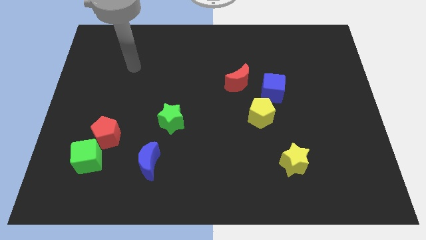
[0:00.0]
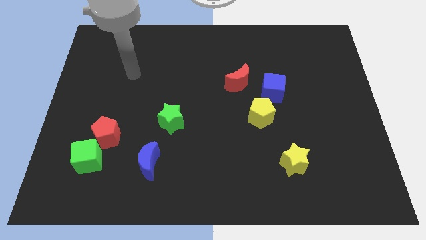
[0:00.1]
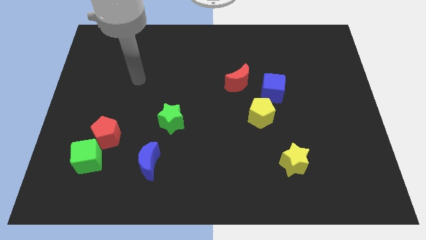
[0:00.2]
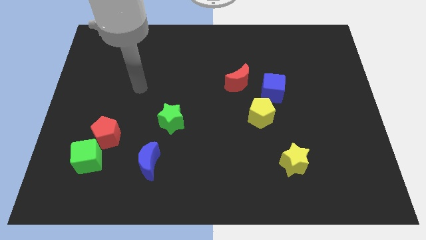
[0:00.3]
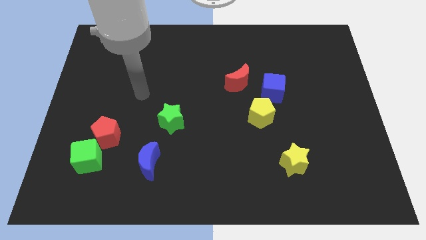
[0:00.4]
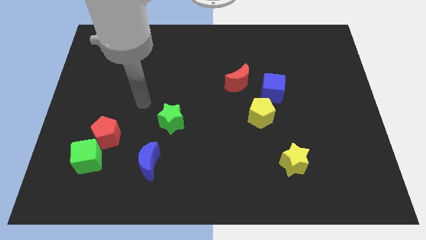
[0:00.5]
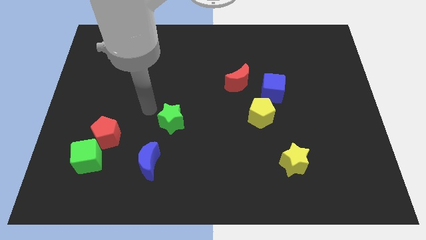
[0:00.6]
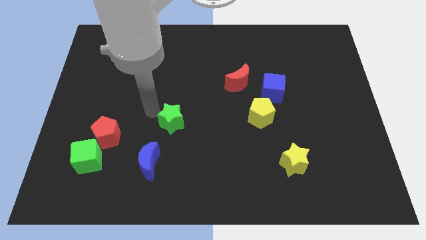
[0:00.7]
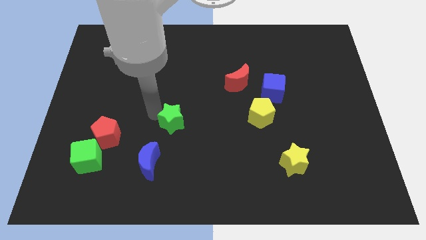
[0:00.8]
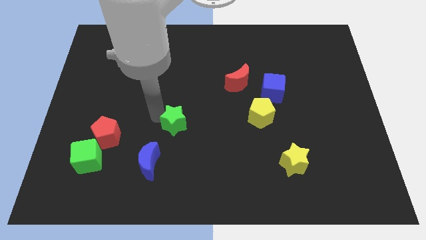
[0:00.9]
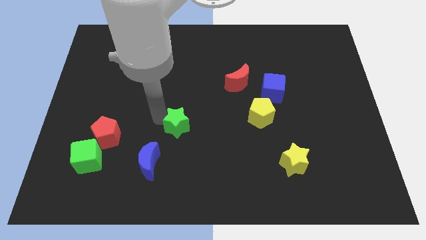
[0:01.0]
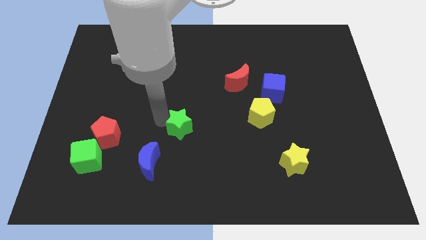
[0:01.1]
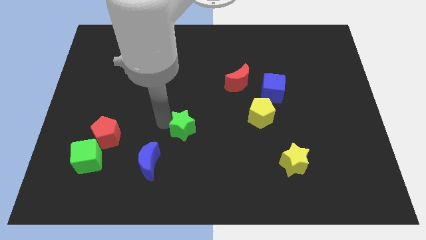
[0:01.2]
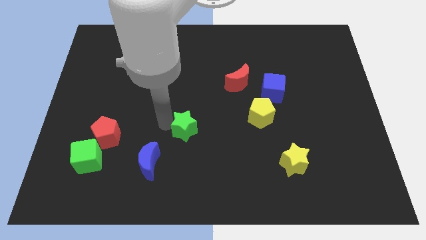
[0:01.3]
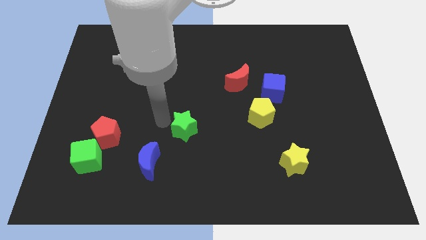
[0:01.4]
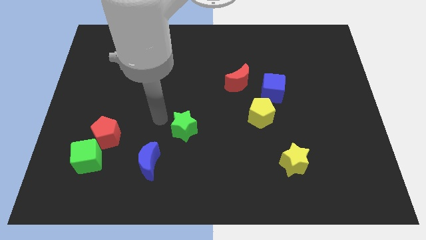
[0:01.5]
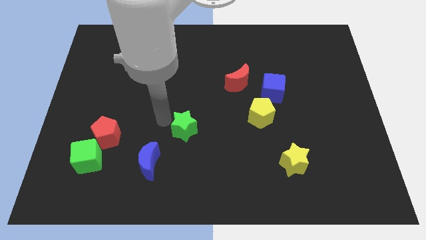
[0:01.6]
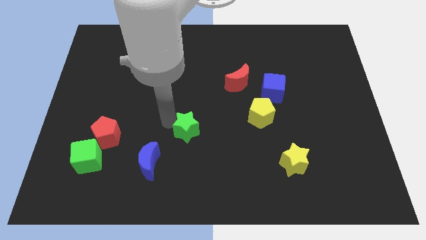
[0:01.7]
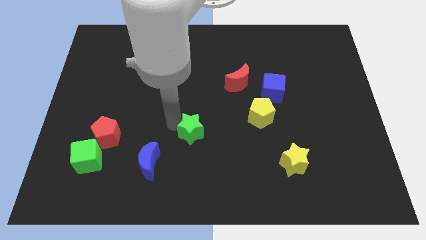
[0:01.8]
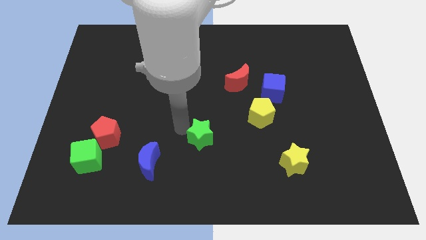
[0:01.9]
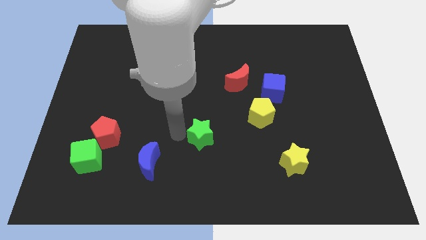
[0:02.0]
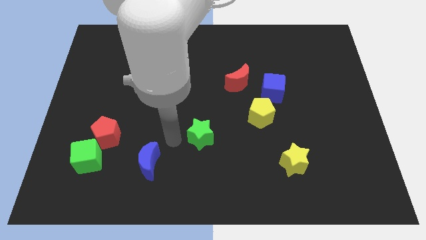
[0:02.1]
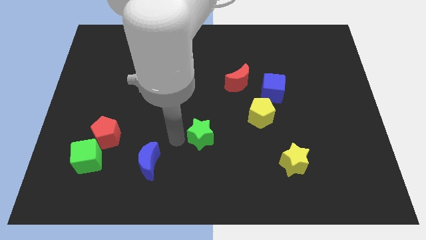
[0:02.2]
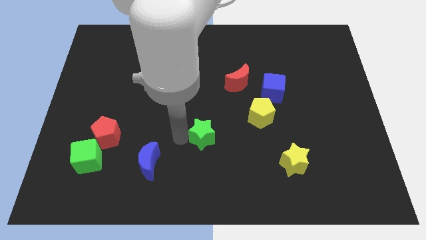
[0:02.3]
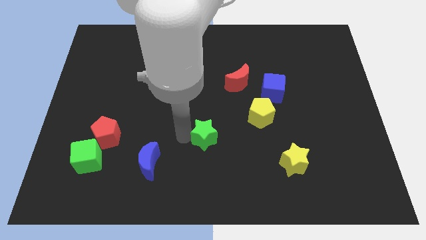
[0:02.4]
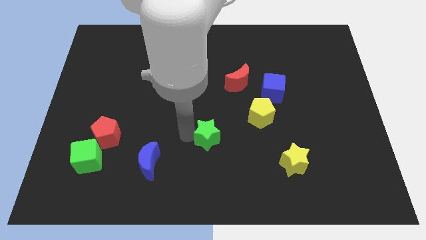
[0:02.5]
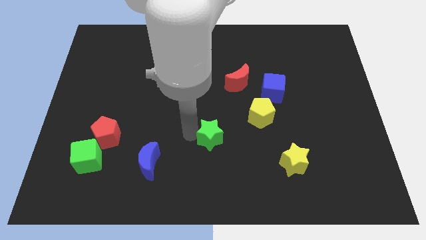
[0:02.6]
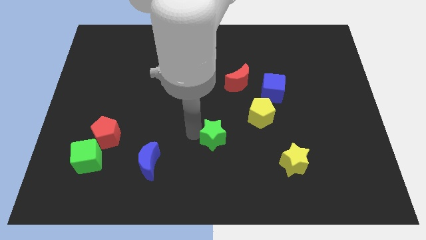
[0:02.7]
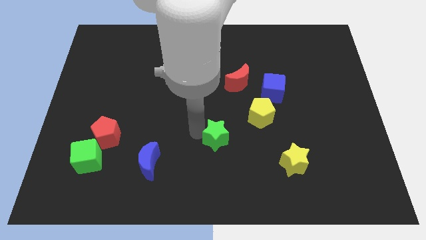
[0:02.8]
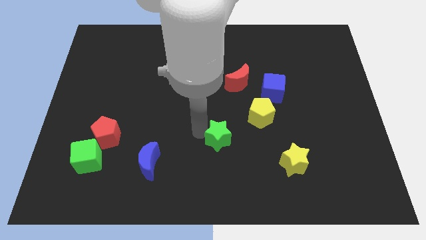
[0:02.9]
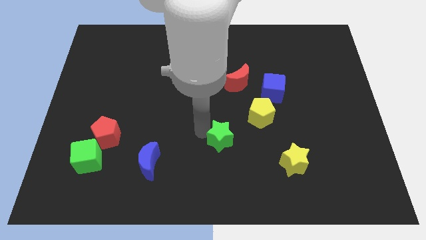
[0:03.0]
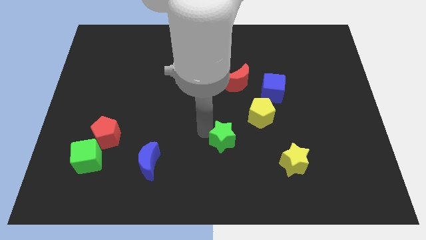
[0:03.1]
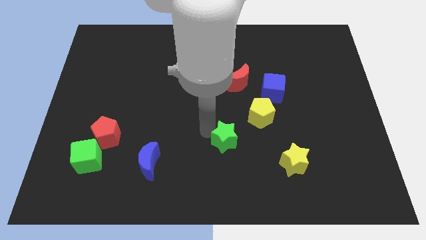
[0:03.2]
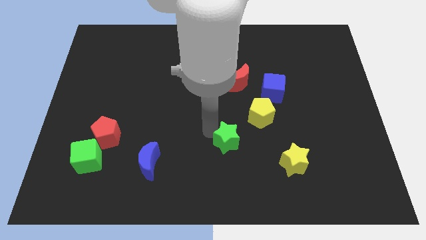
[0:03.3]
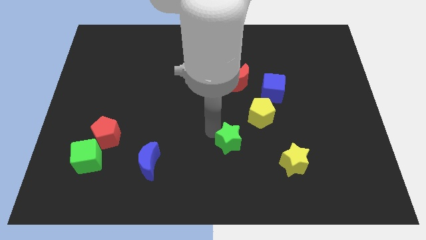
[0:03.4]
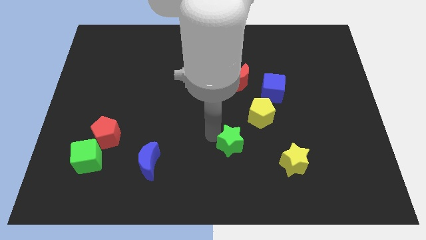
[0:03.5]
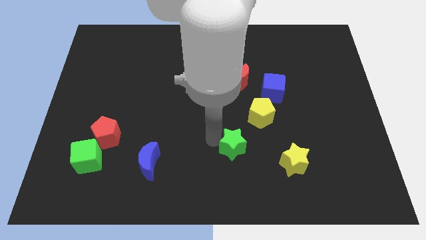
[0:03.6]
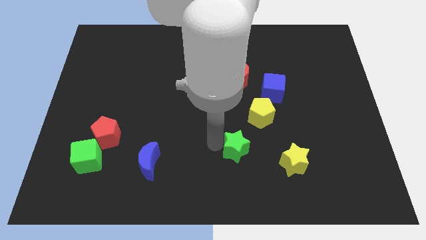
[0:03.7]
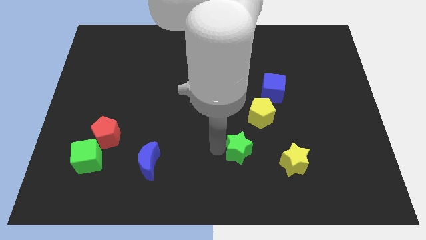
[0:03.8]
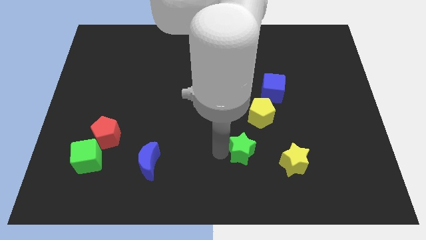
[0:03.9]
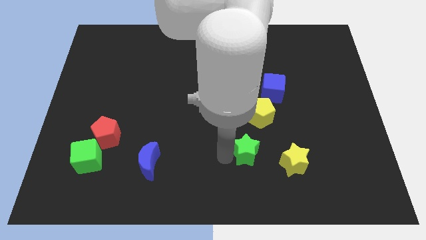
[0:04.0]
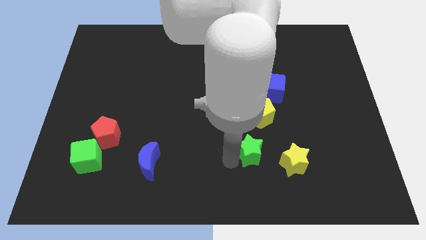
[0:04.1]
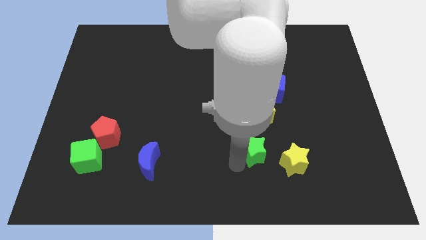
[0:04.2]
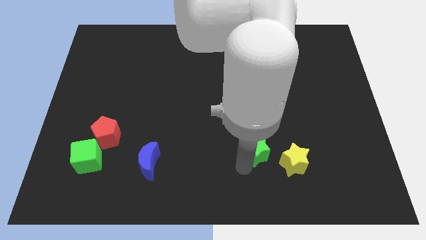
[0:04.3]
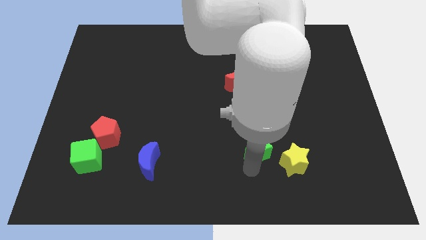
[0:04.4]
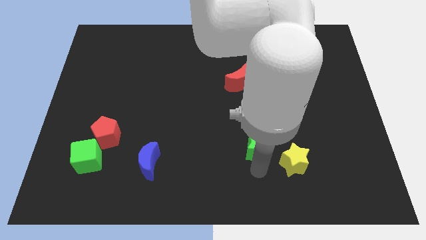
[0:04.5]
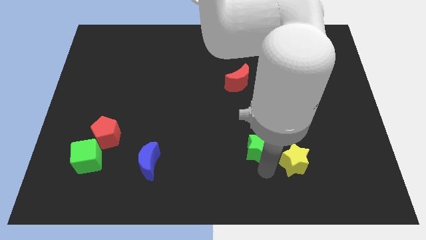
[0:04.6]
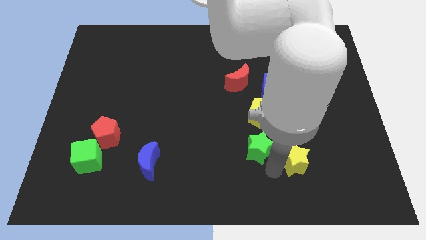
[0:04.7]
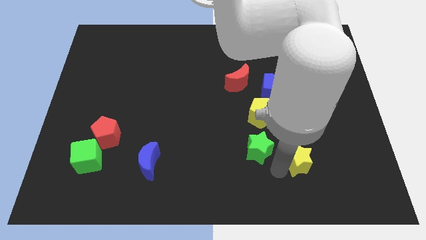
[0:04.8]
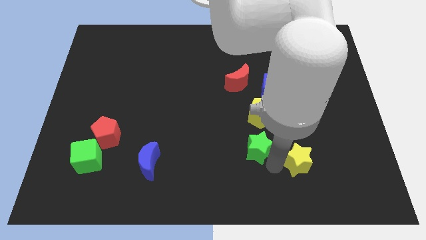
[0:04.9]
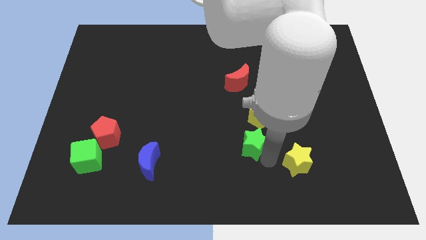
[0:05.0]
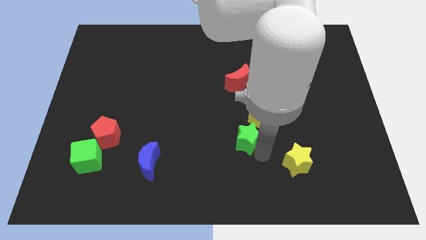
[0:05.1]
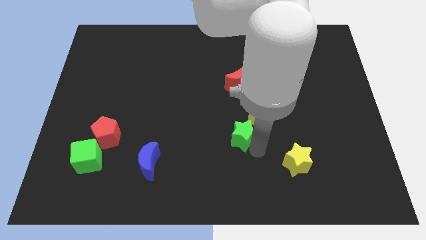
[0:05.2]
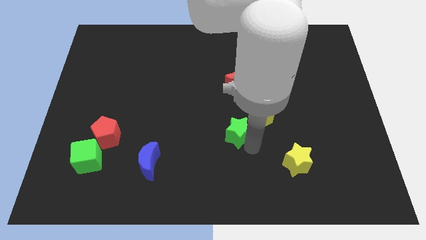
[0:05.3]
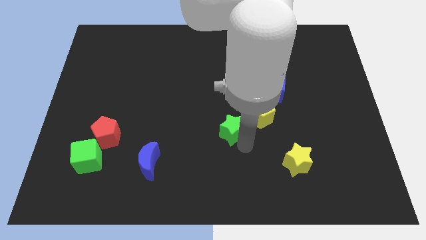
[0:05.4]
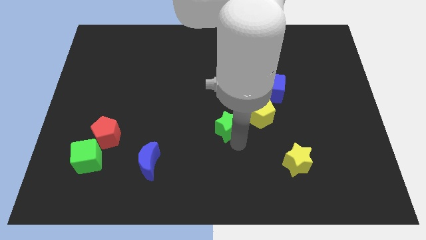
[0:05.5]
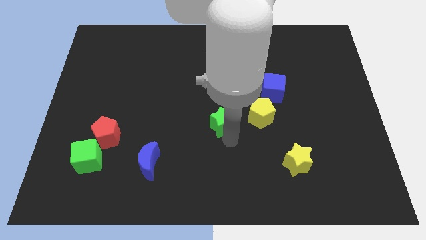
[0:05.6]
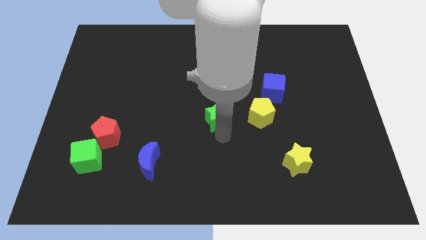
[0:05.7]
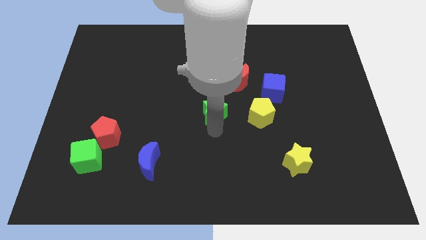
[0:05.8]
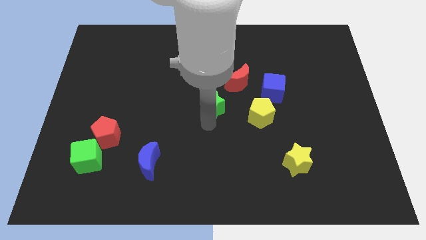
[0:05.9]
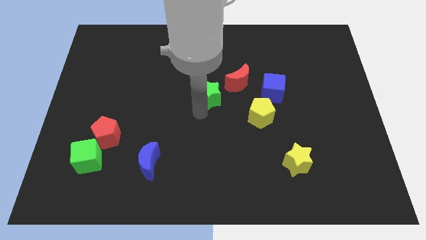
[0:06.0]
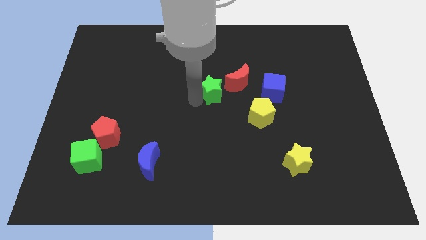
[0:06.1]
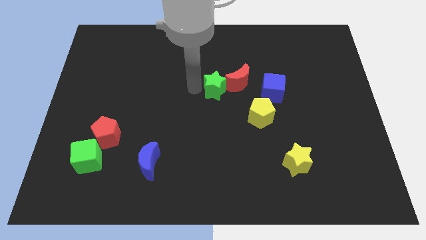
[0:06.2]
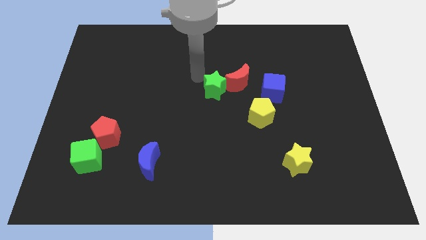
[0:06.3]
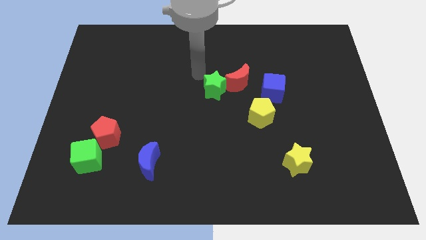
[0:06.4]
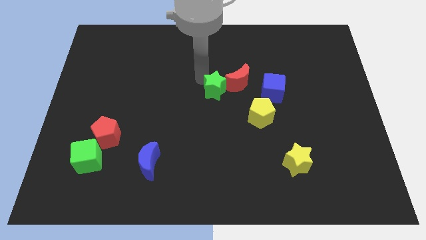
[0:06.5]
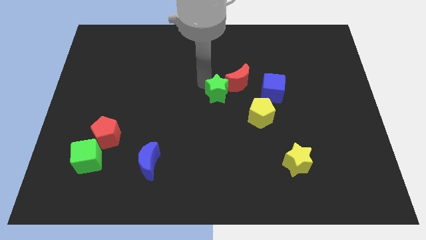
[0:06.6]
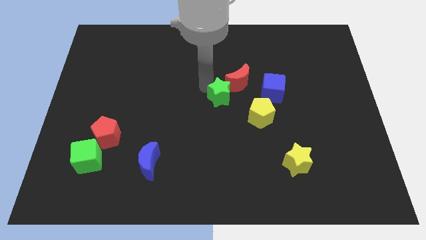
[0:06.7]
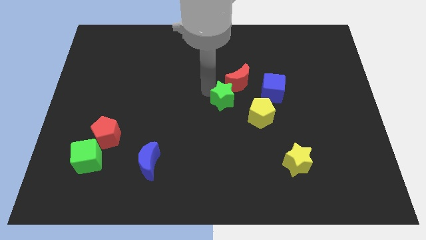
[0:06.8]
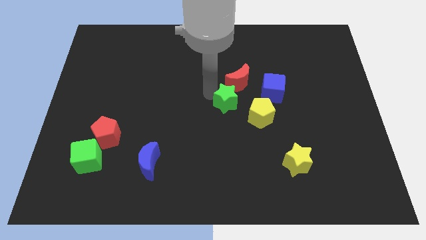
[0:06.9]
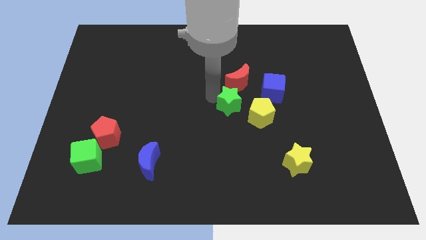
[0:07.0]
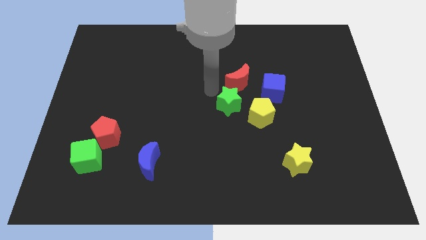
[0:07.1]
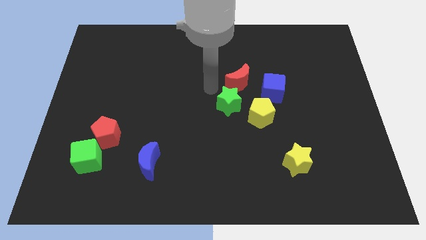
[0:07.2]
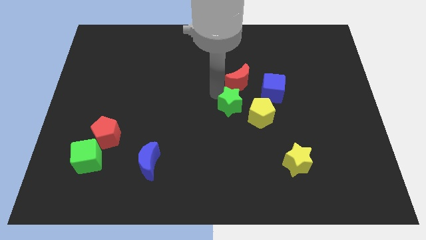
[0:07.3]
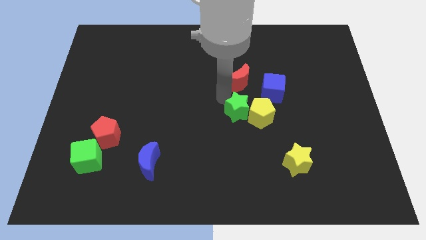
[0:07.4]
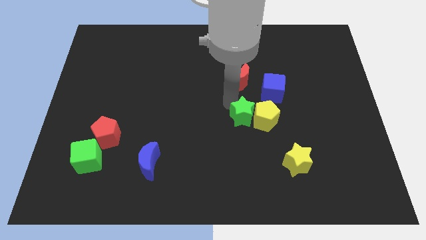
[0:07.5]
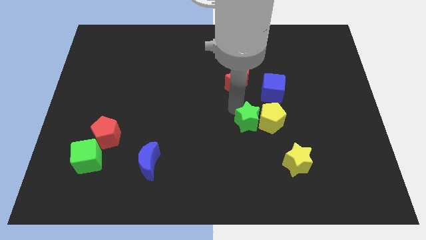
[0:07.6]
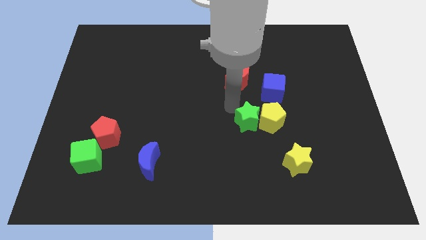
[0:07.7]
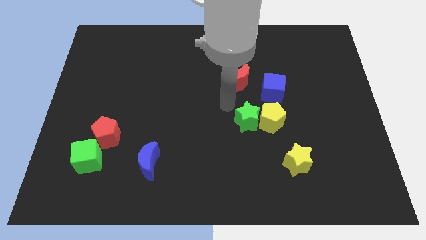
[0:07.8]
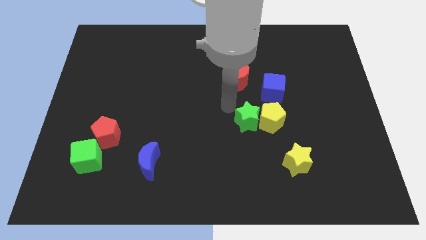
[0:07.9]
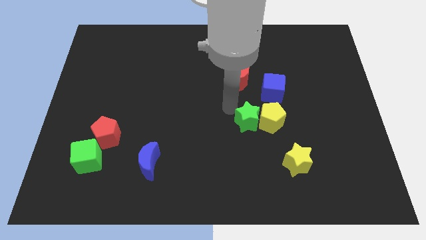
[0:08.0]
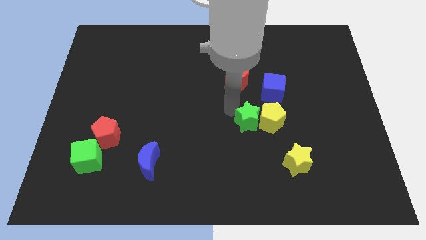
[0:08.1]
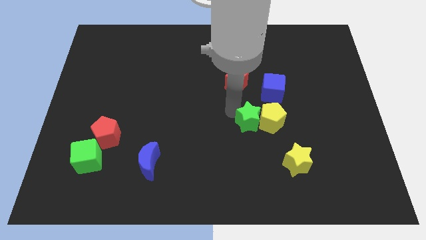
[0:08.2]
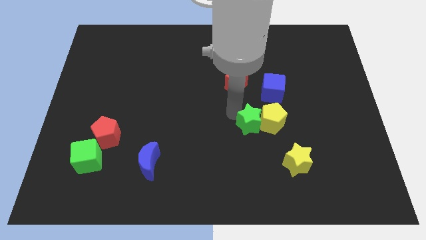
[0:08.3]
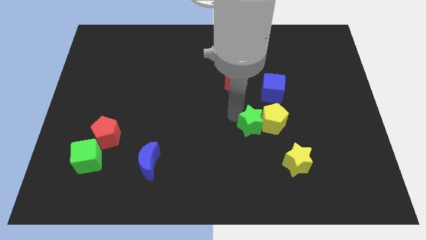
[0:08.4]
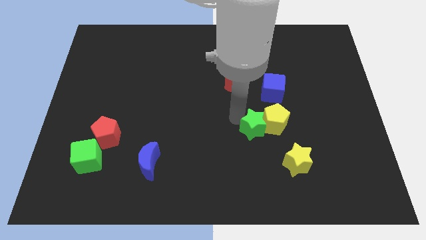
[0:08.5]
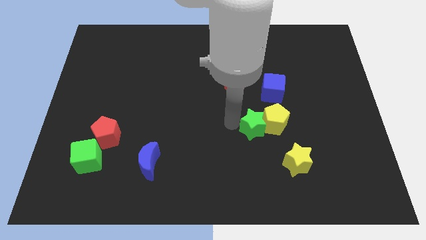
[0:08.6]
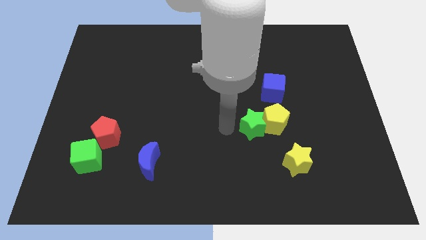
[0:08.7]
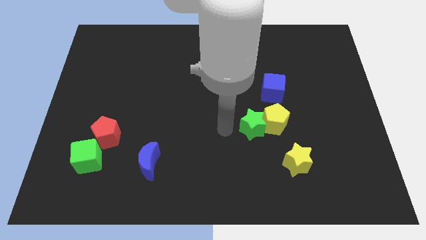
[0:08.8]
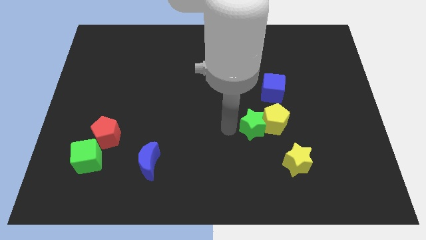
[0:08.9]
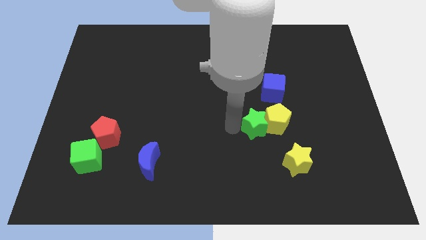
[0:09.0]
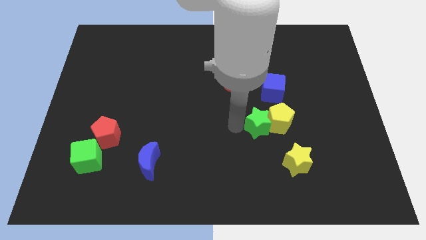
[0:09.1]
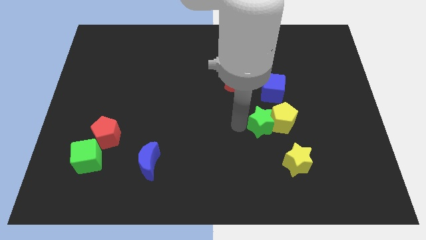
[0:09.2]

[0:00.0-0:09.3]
move the green star to the right
